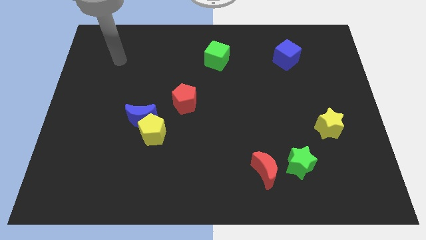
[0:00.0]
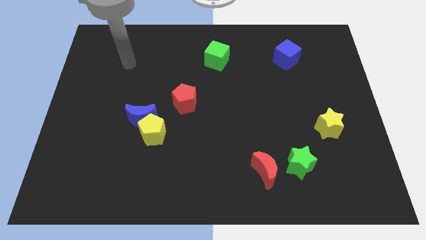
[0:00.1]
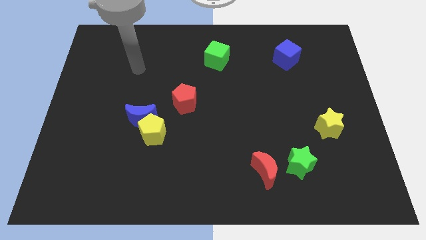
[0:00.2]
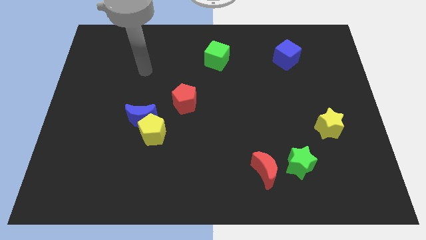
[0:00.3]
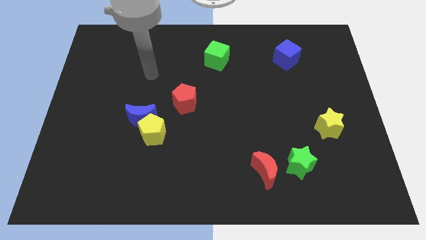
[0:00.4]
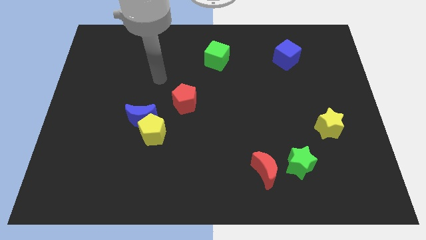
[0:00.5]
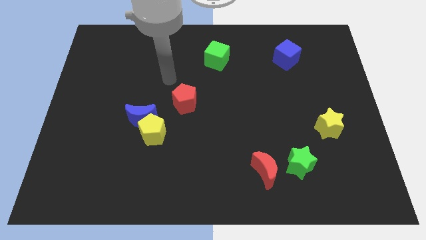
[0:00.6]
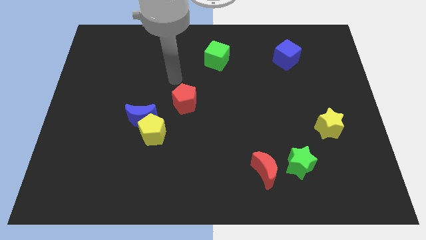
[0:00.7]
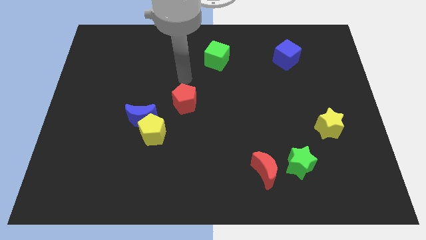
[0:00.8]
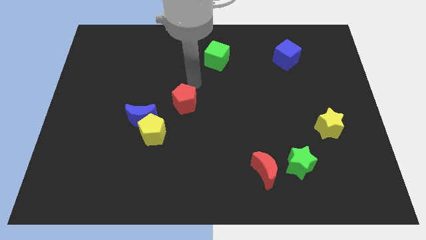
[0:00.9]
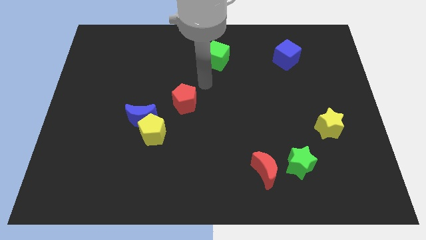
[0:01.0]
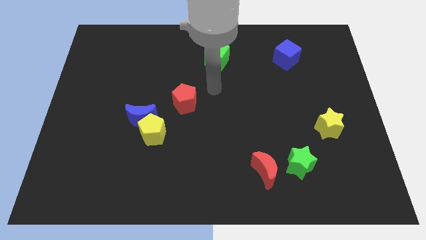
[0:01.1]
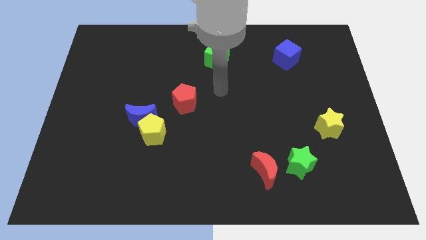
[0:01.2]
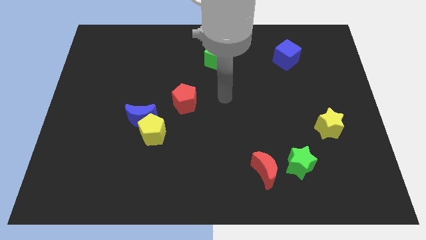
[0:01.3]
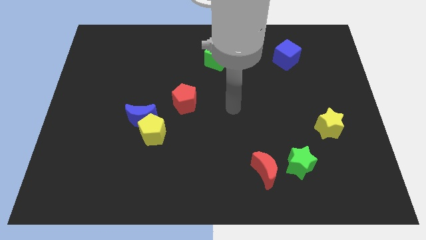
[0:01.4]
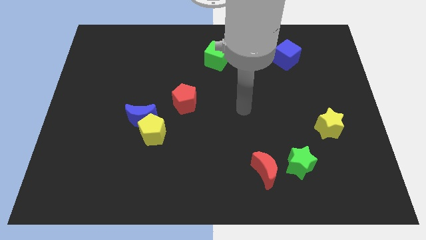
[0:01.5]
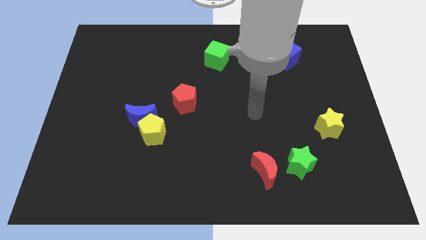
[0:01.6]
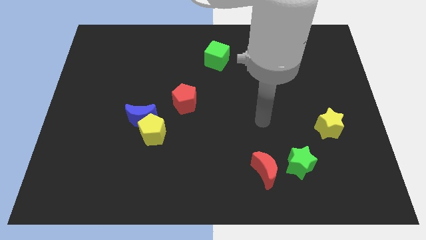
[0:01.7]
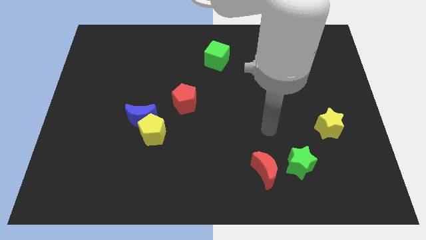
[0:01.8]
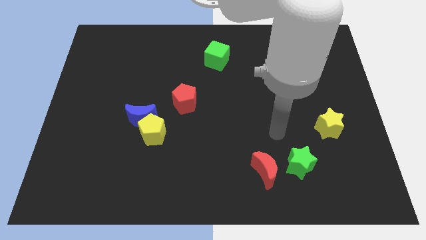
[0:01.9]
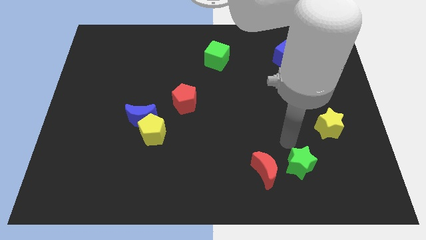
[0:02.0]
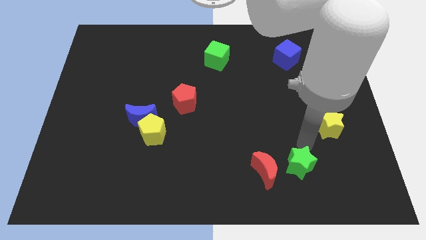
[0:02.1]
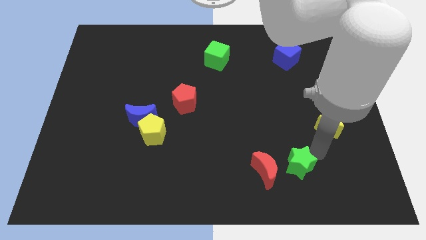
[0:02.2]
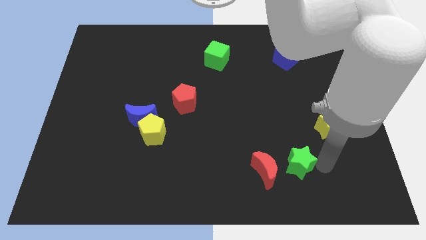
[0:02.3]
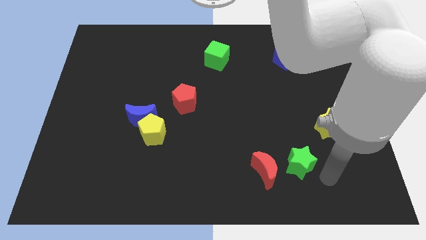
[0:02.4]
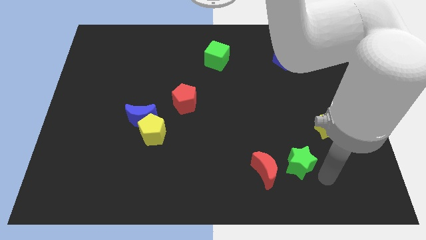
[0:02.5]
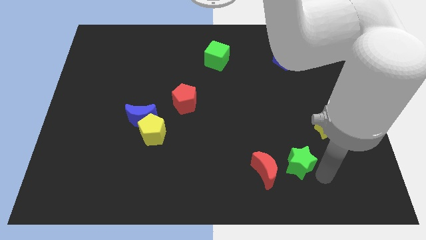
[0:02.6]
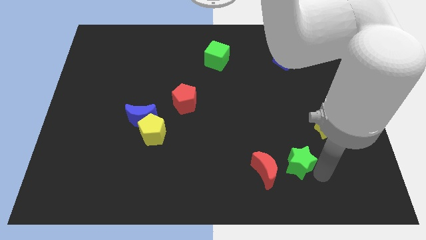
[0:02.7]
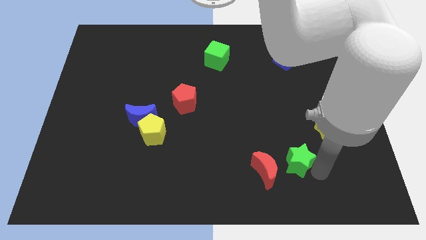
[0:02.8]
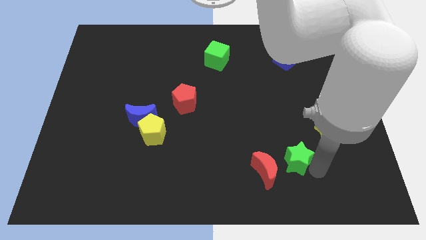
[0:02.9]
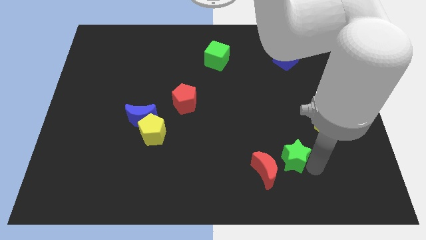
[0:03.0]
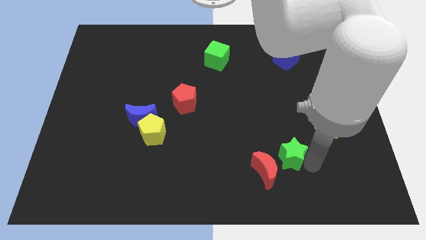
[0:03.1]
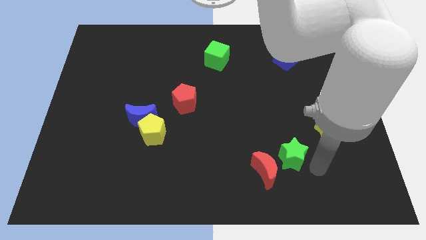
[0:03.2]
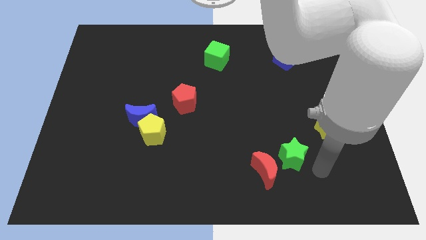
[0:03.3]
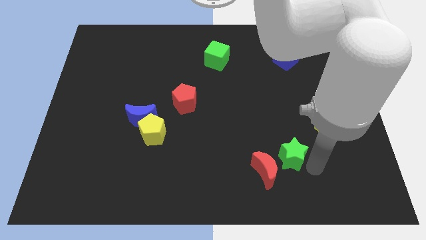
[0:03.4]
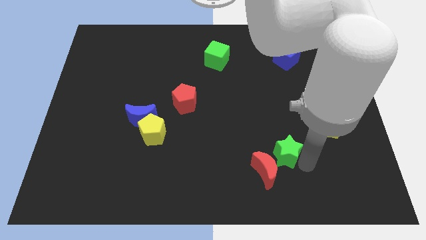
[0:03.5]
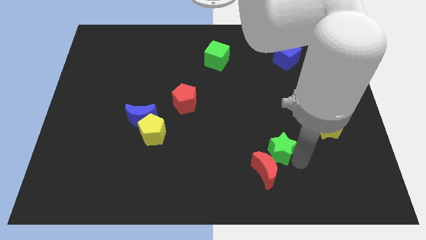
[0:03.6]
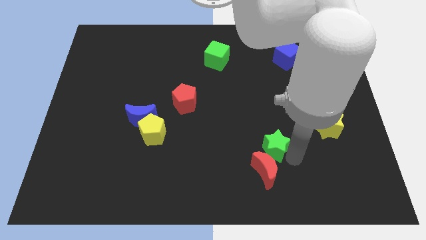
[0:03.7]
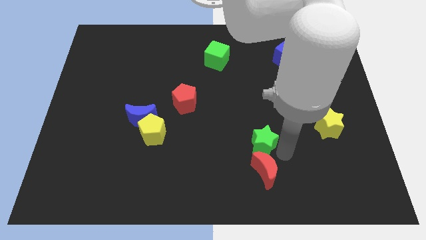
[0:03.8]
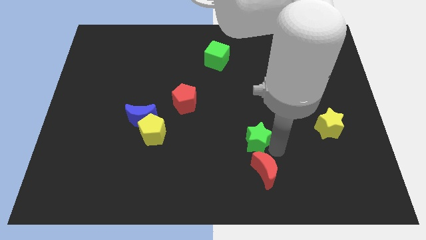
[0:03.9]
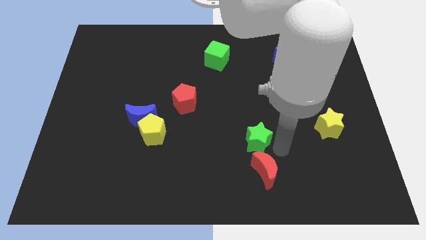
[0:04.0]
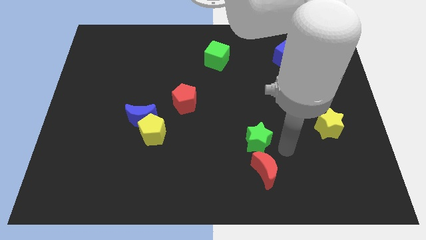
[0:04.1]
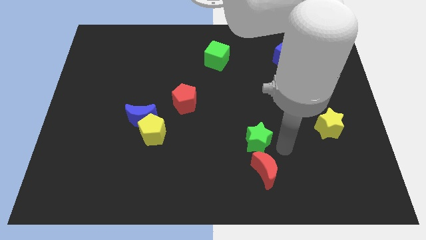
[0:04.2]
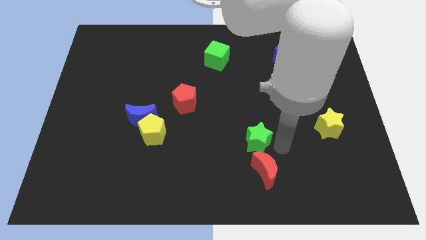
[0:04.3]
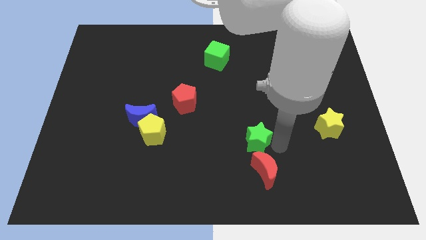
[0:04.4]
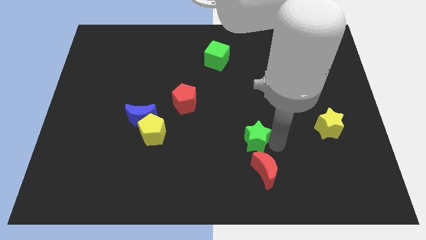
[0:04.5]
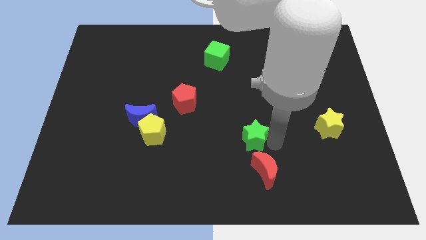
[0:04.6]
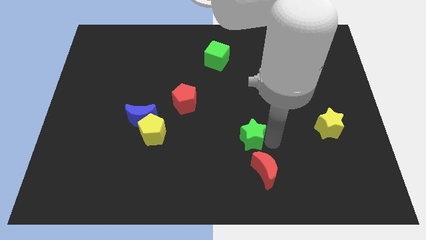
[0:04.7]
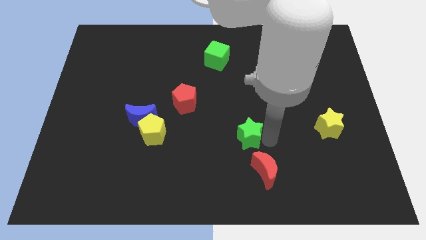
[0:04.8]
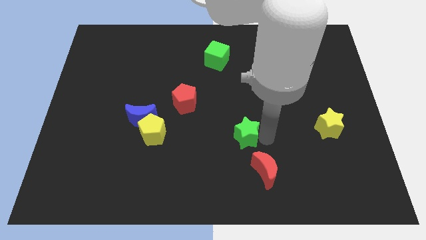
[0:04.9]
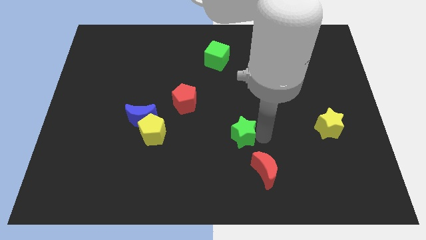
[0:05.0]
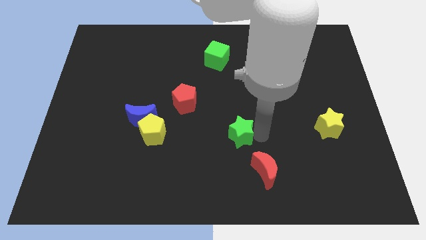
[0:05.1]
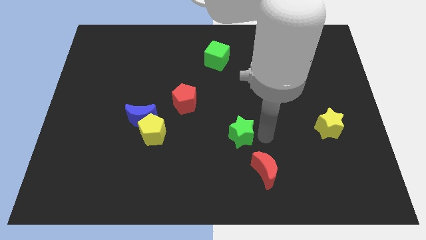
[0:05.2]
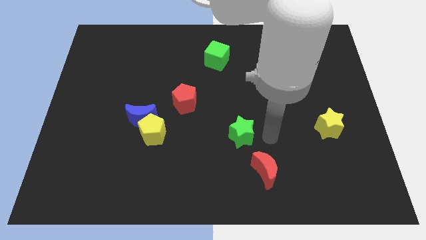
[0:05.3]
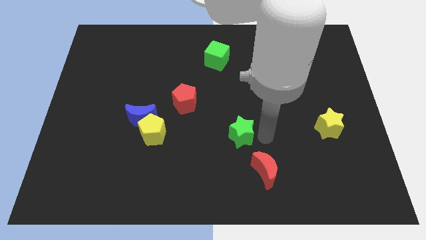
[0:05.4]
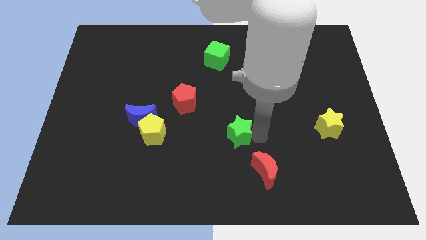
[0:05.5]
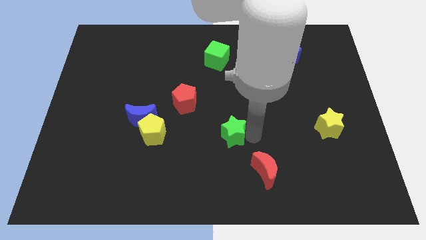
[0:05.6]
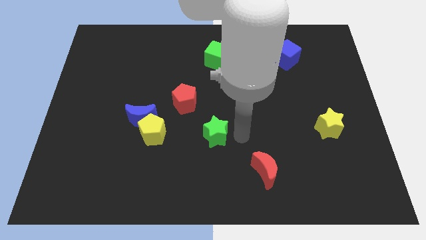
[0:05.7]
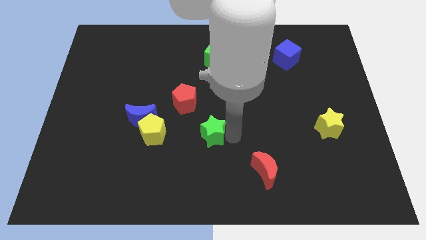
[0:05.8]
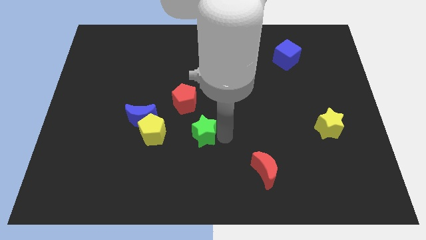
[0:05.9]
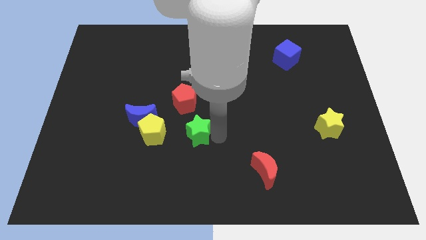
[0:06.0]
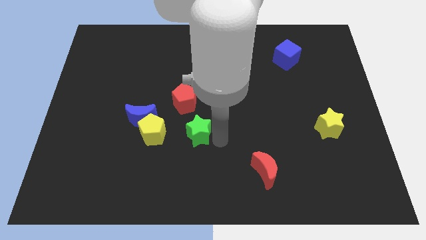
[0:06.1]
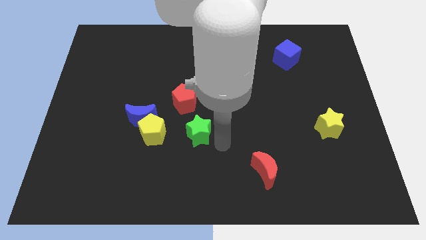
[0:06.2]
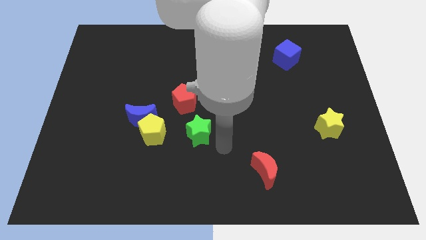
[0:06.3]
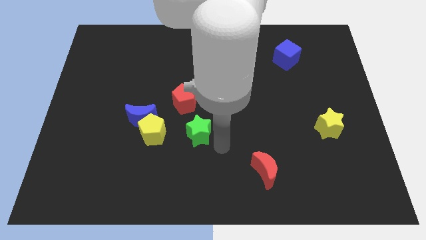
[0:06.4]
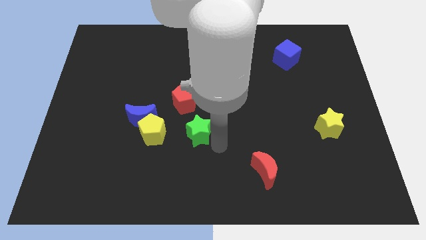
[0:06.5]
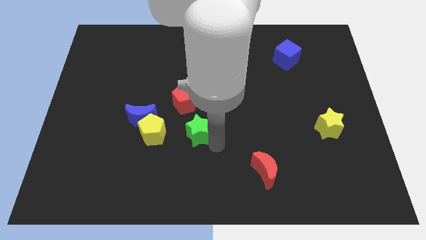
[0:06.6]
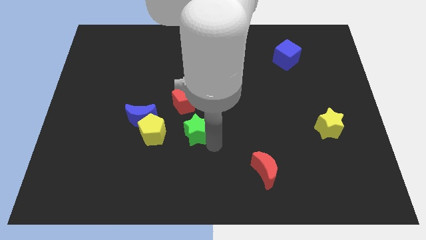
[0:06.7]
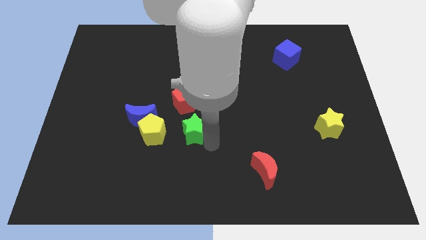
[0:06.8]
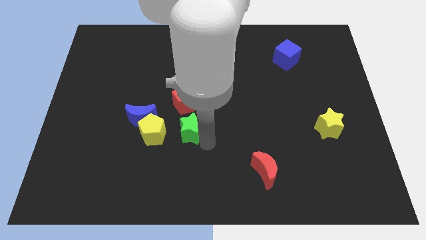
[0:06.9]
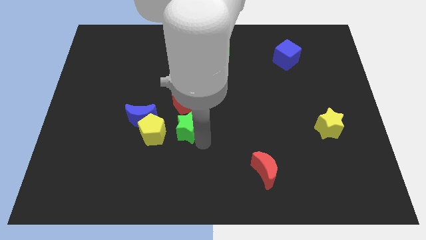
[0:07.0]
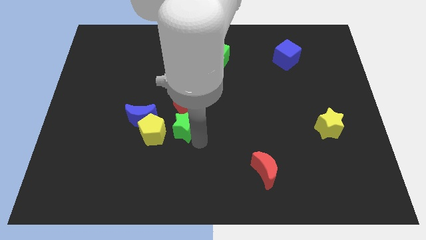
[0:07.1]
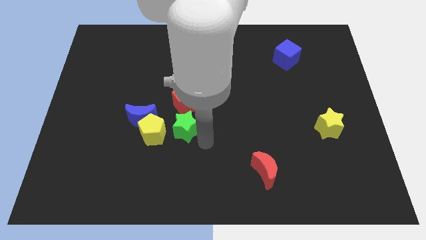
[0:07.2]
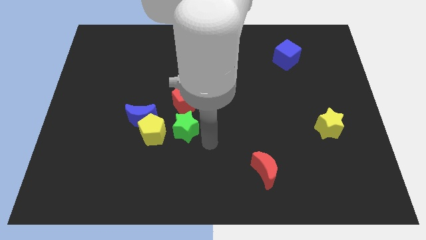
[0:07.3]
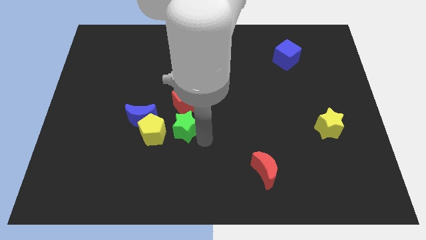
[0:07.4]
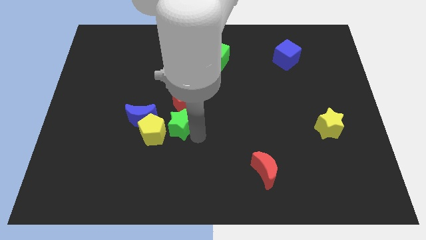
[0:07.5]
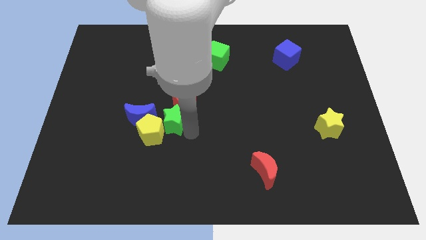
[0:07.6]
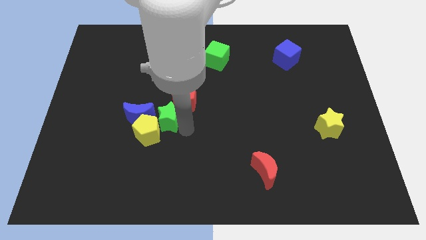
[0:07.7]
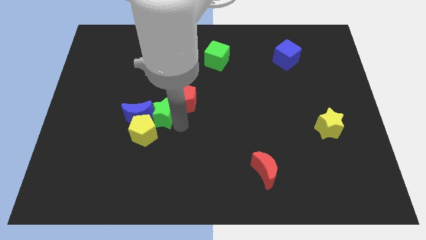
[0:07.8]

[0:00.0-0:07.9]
push the green star next to the blue moon

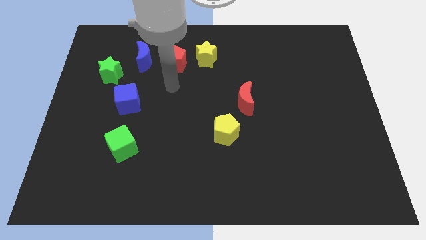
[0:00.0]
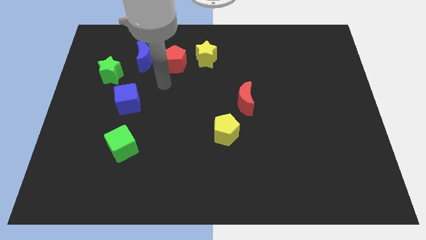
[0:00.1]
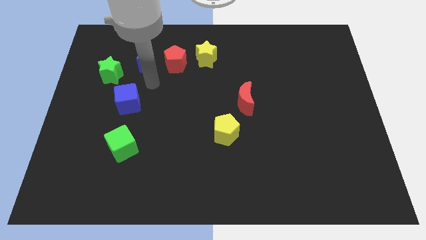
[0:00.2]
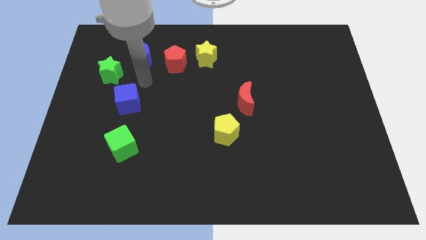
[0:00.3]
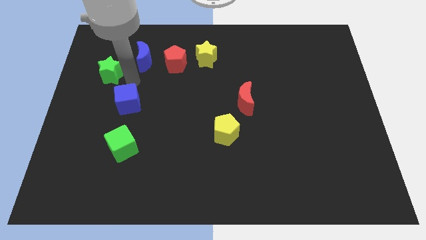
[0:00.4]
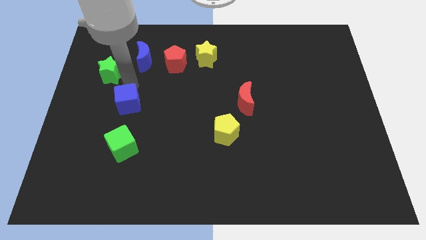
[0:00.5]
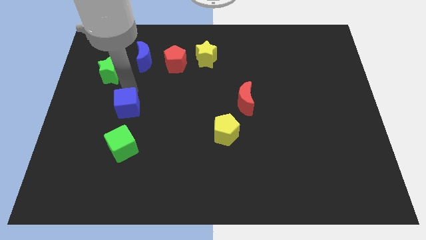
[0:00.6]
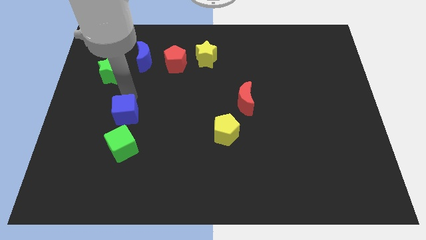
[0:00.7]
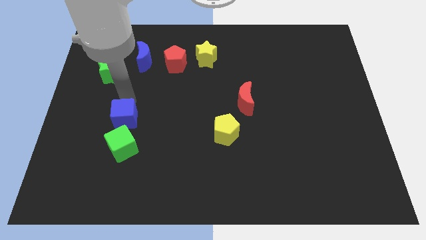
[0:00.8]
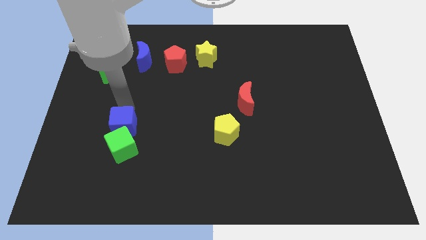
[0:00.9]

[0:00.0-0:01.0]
put the blue cube next to the green cube
